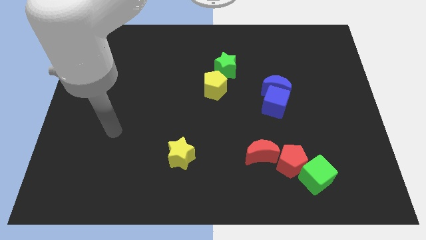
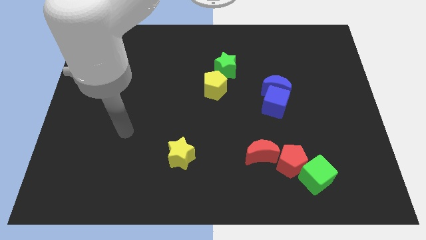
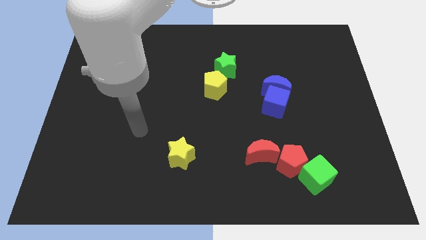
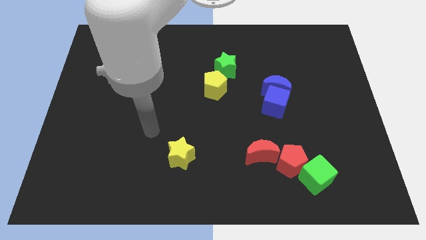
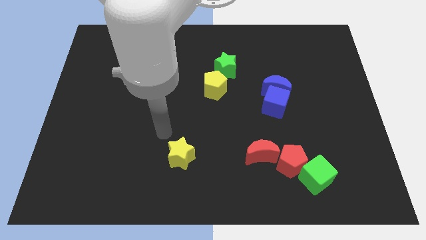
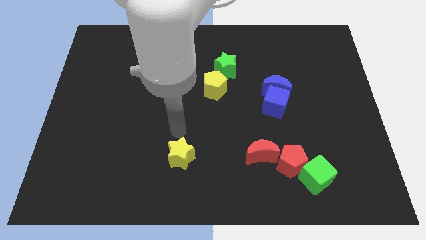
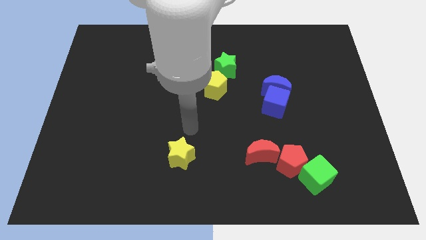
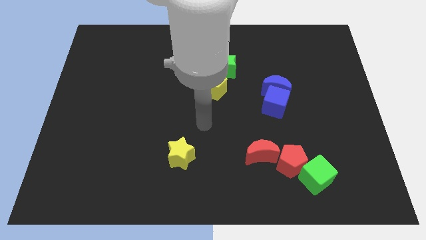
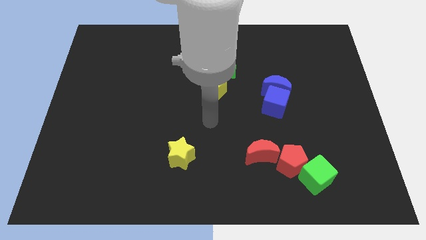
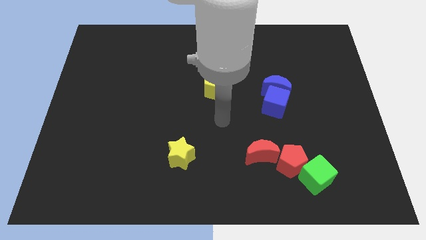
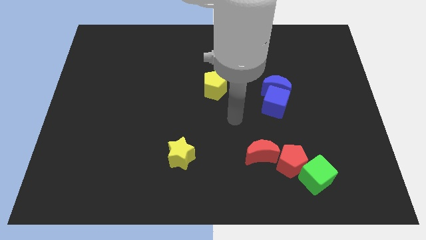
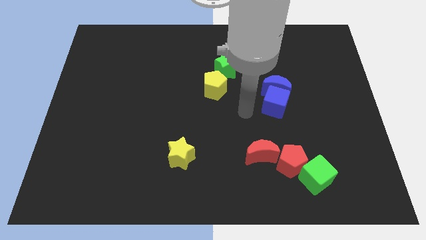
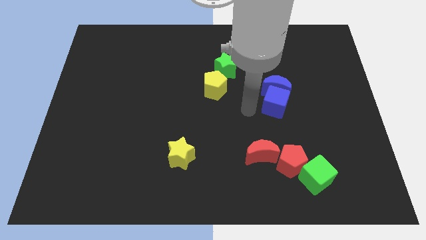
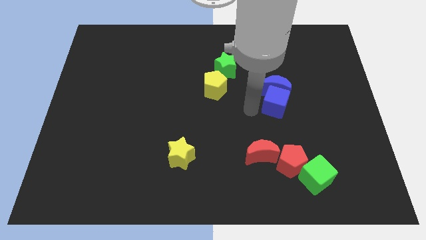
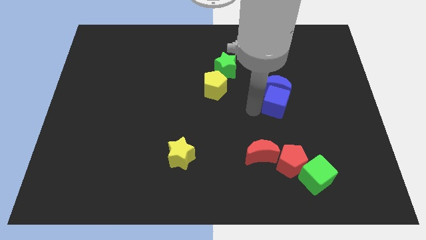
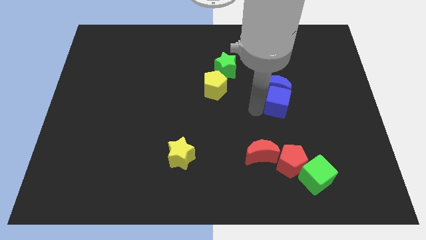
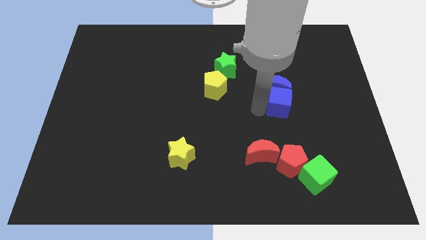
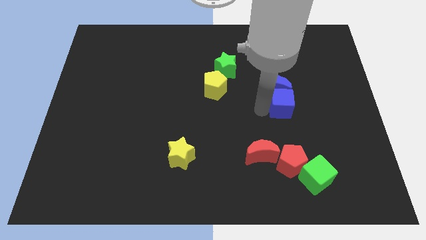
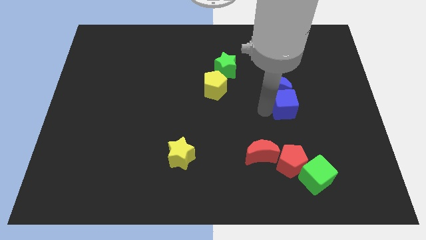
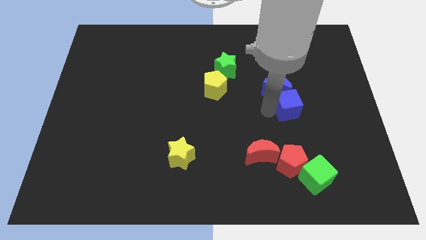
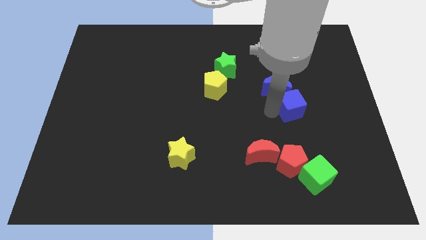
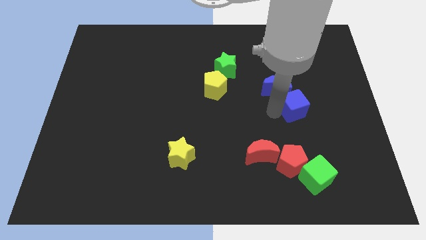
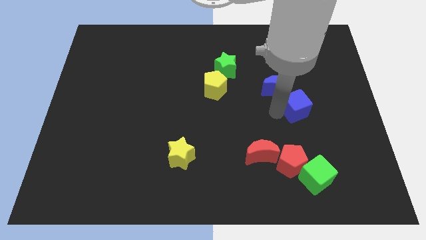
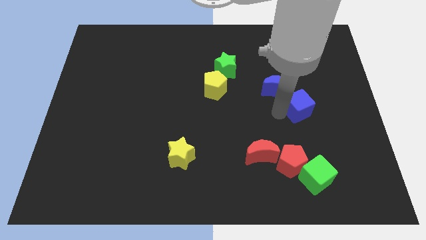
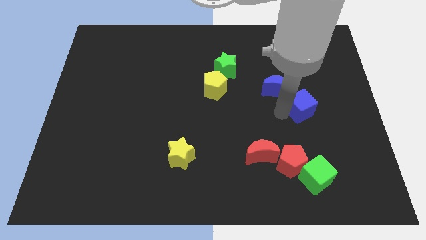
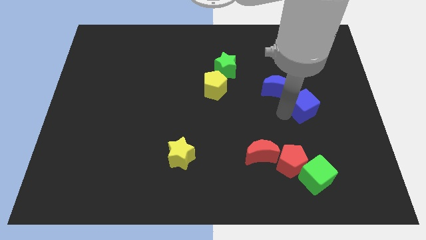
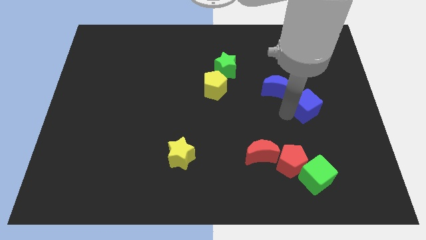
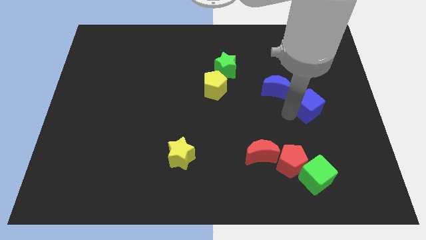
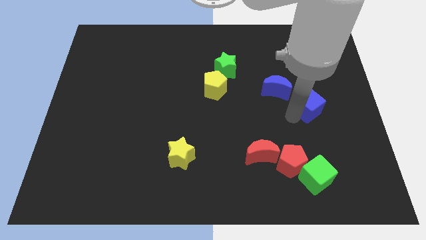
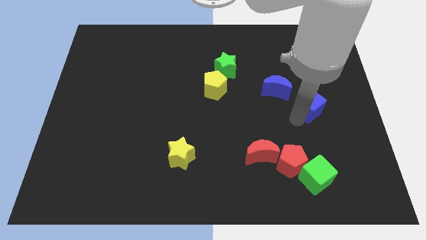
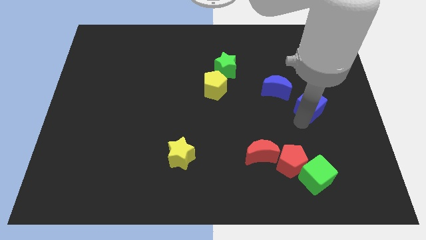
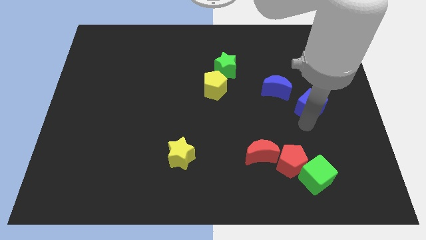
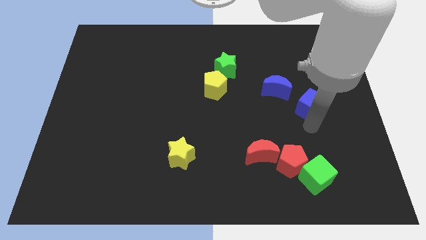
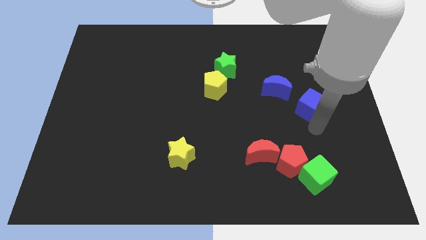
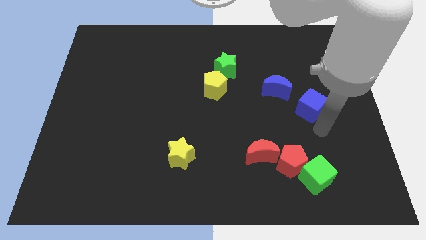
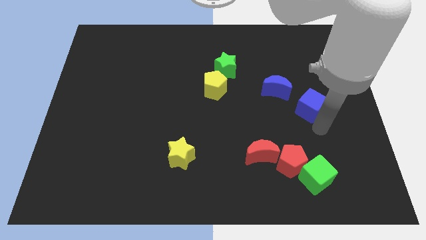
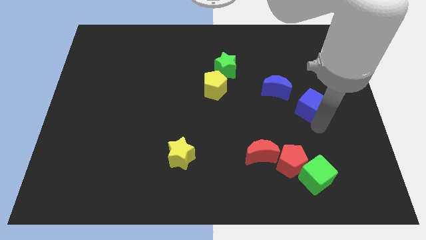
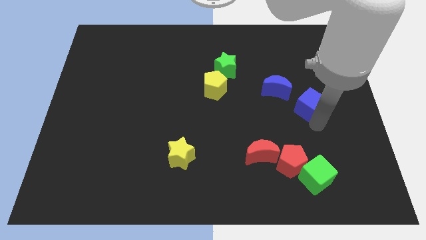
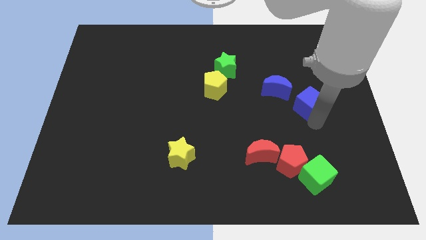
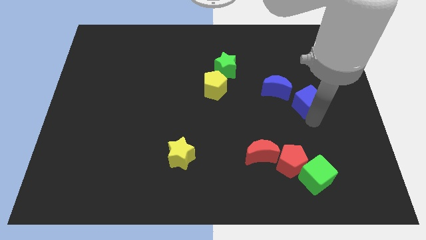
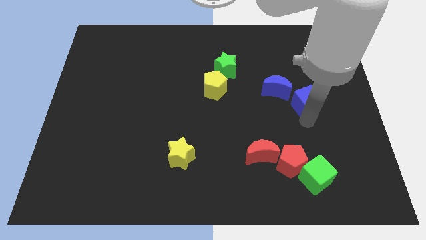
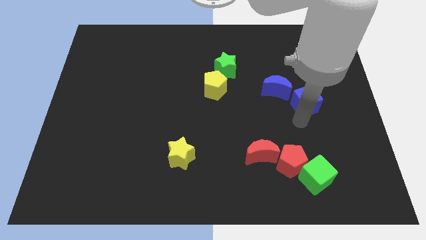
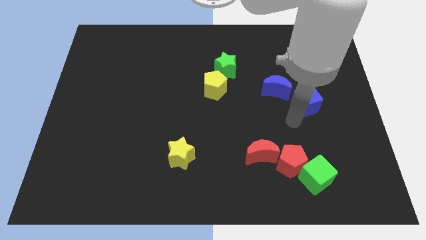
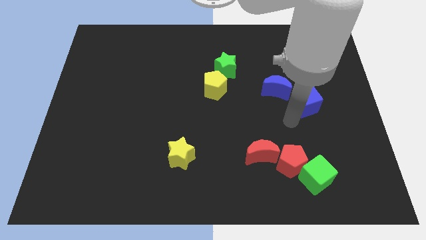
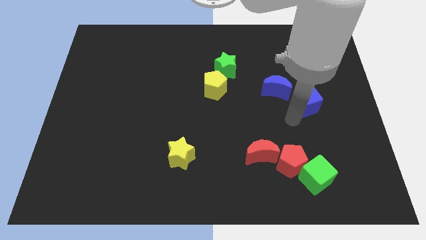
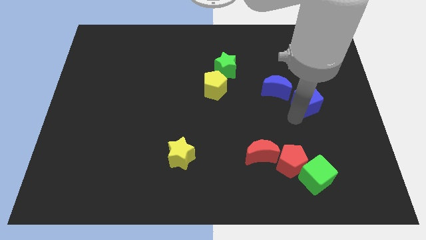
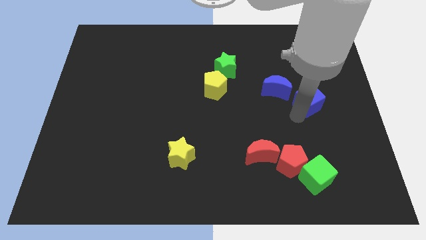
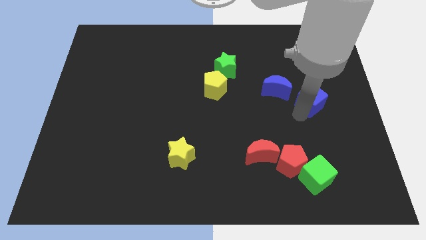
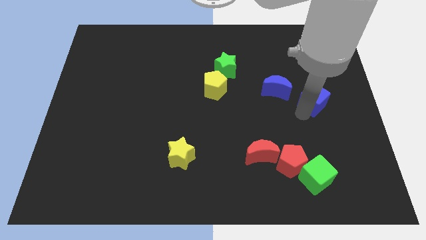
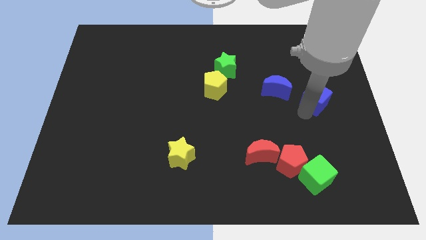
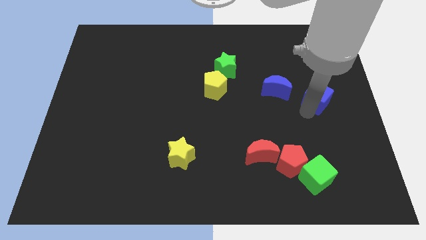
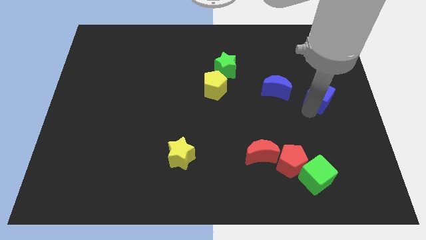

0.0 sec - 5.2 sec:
slightly slide the blue cube up and to the right diagonally

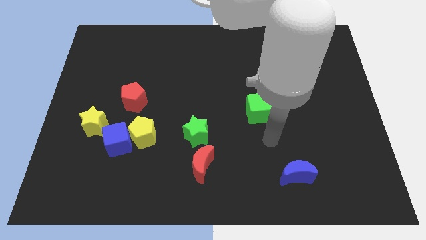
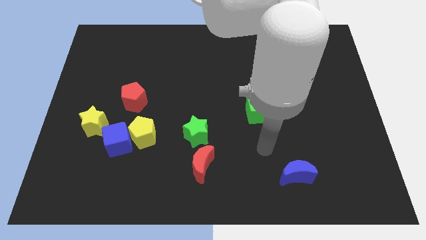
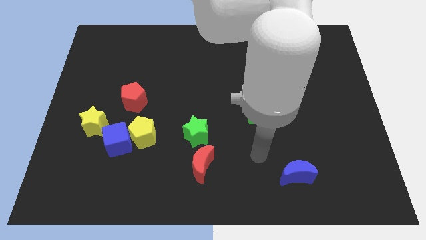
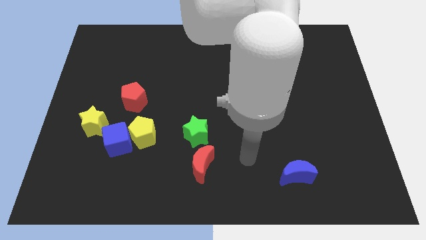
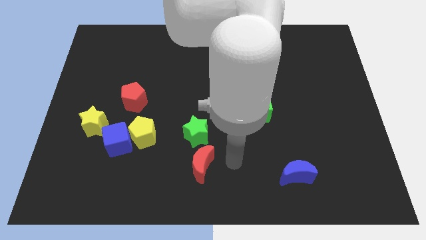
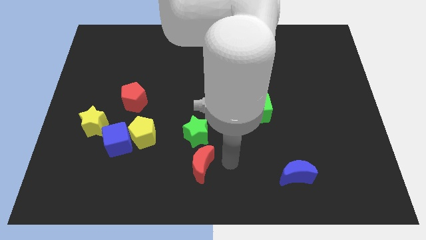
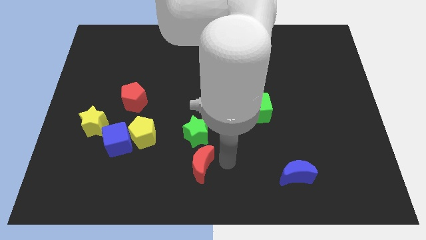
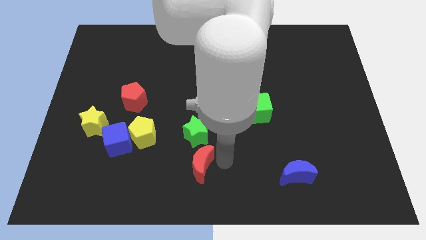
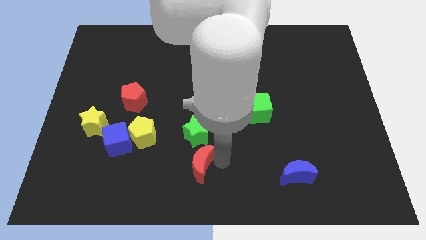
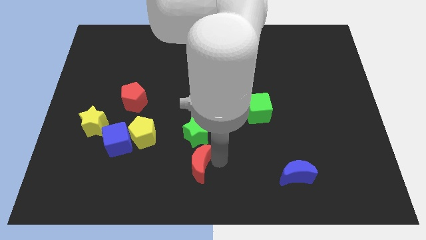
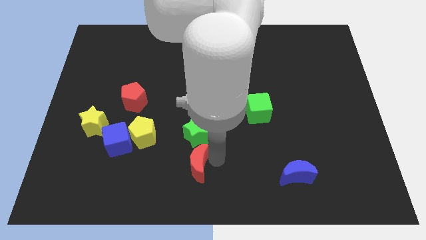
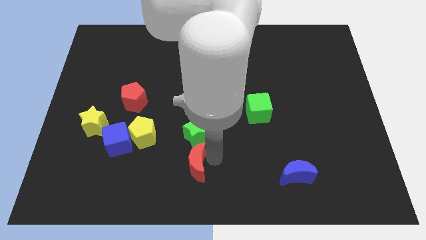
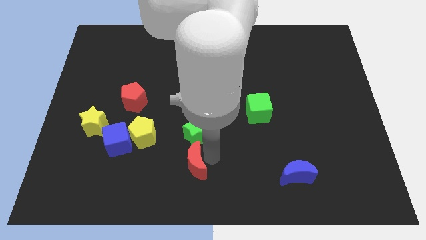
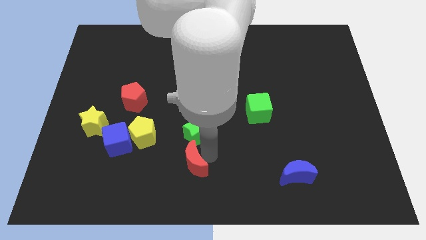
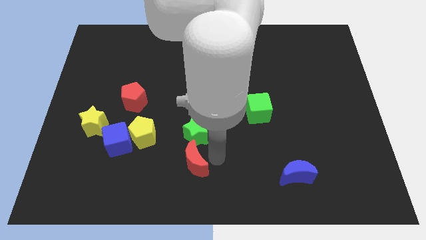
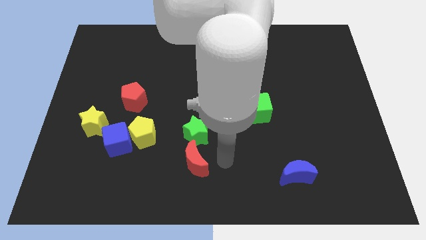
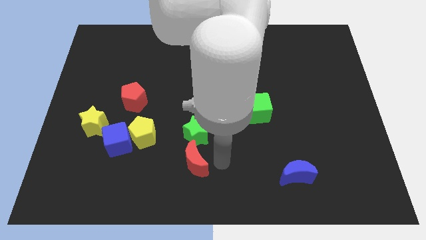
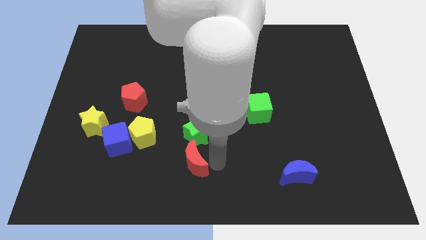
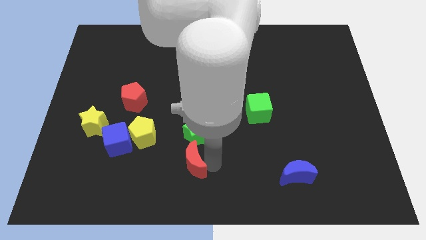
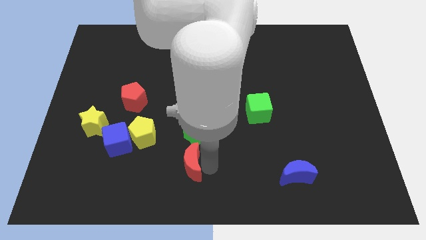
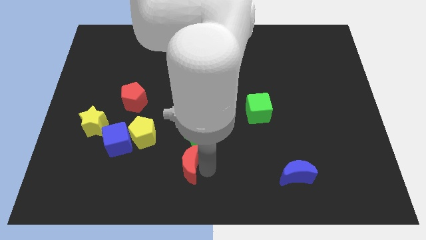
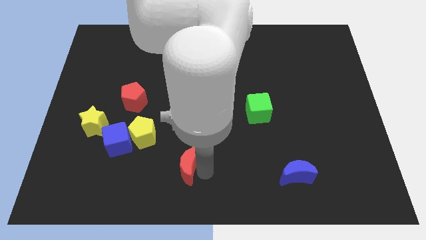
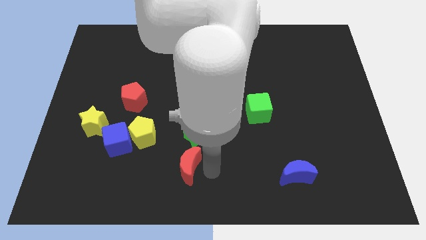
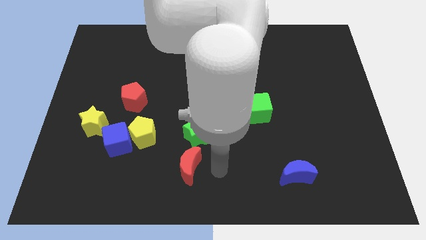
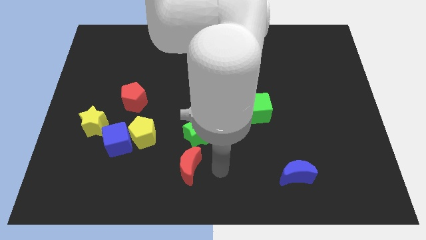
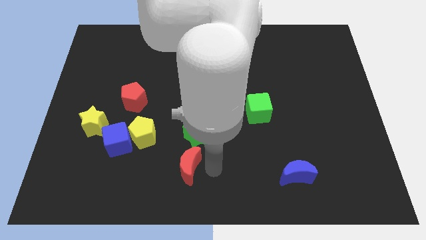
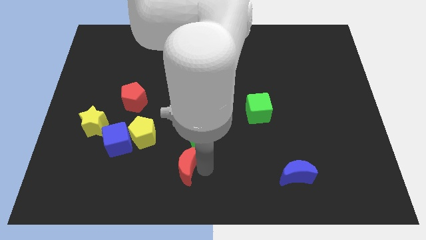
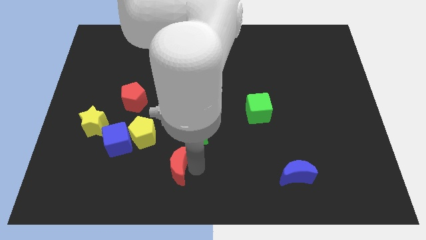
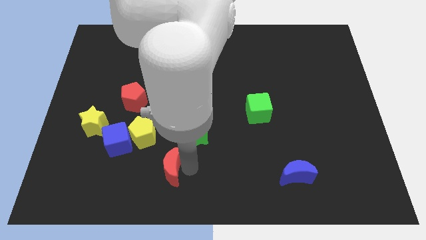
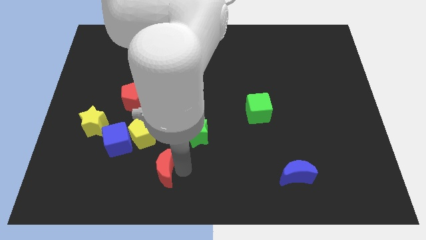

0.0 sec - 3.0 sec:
slightly move the red moon left

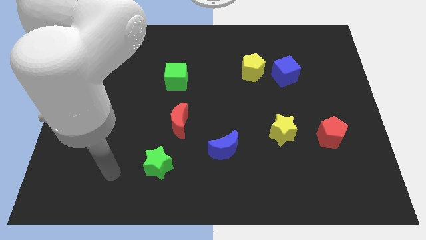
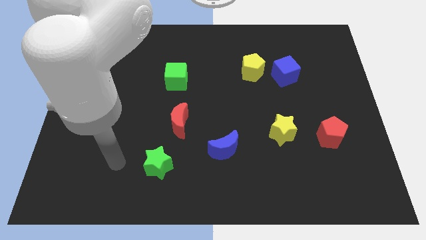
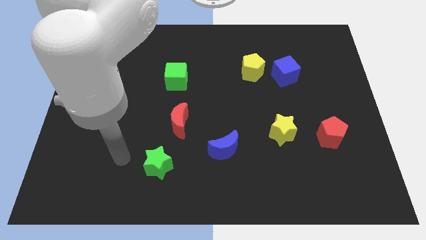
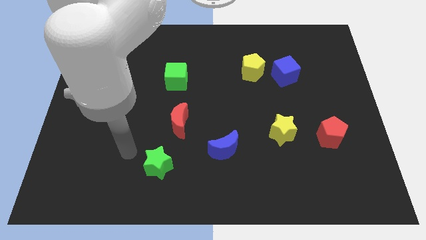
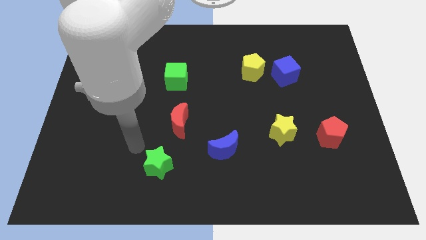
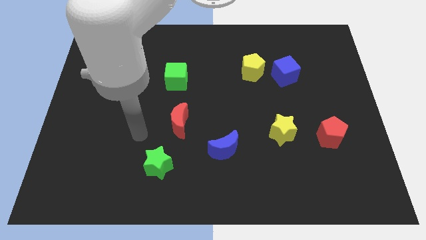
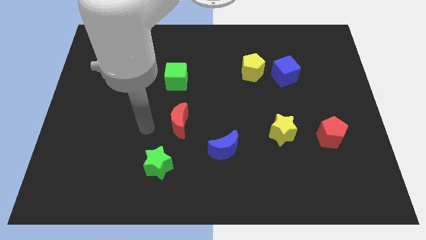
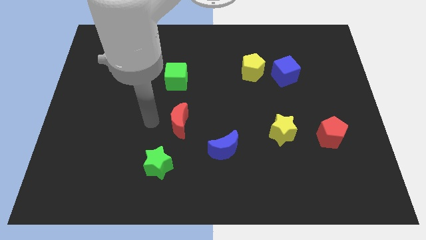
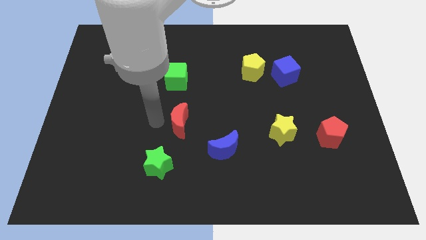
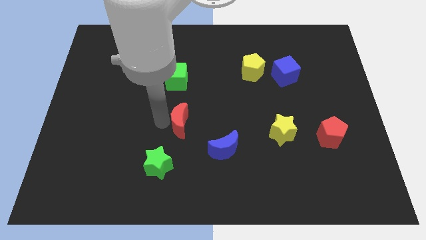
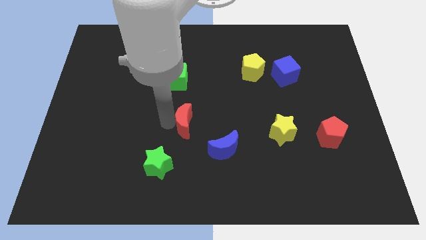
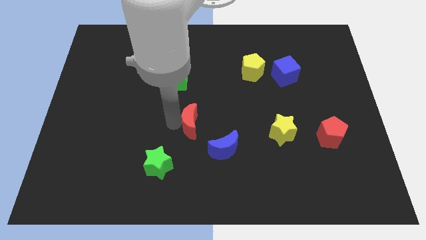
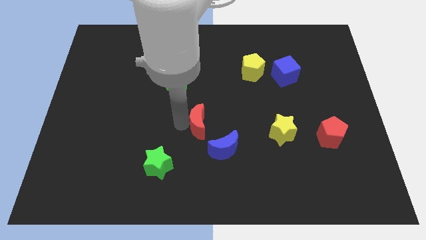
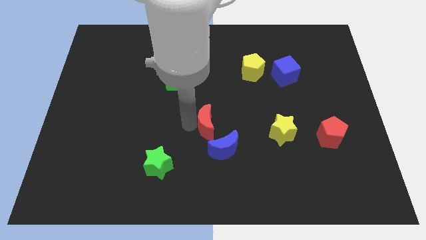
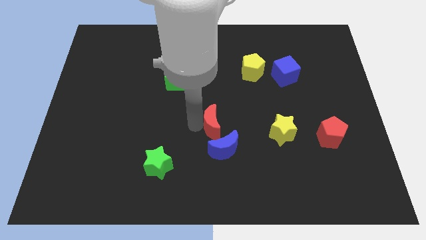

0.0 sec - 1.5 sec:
push the red moon somewhat to the right
